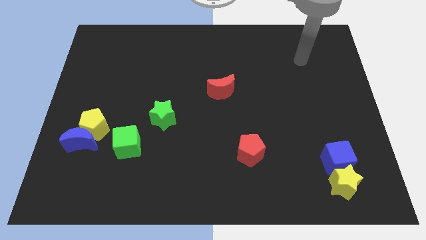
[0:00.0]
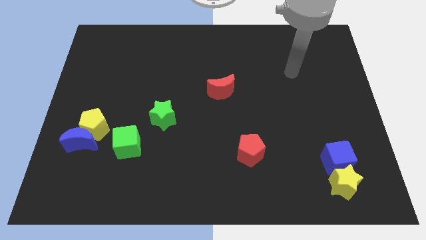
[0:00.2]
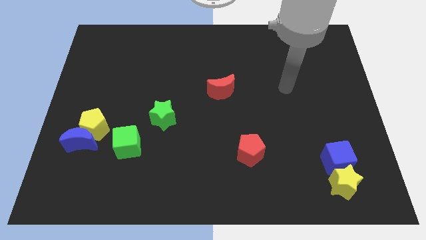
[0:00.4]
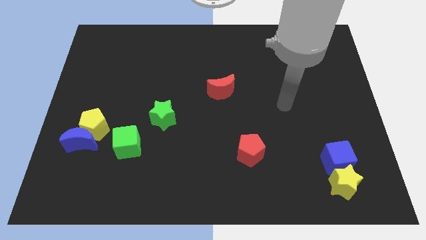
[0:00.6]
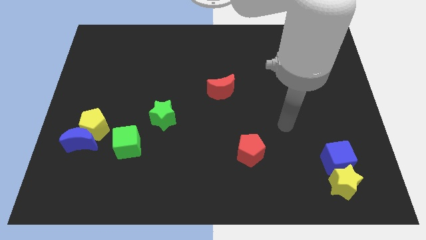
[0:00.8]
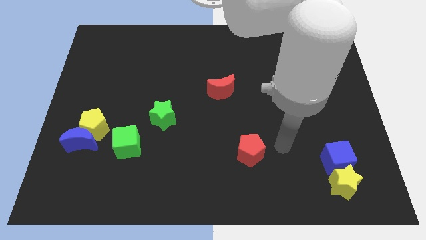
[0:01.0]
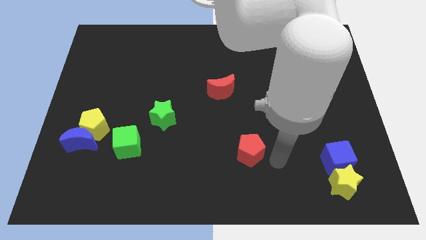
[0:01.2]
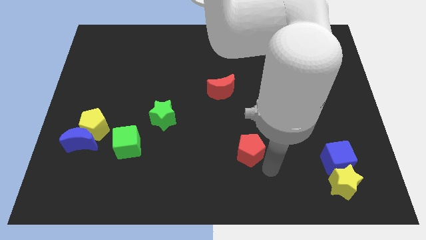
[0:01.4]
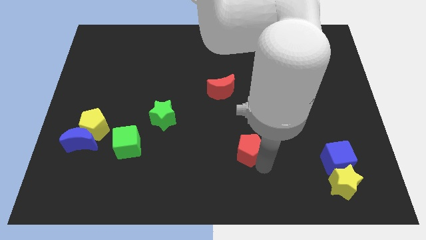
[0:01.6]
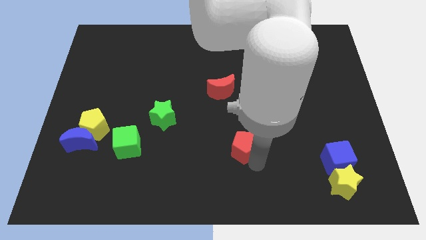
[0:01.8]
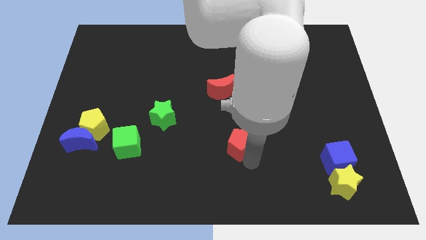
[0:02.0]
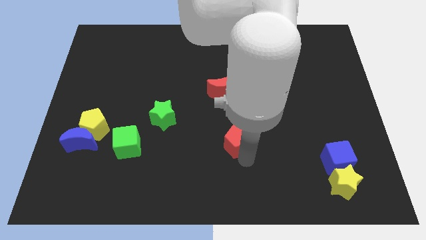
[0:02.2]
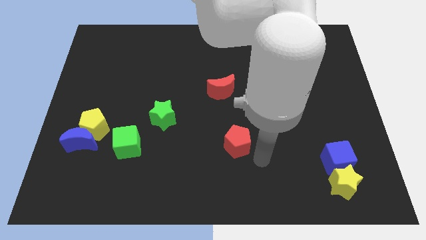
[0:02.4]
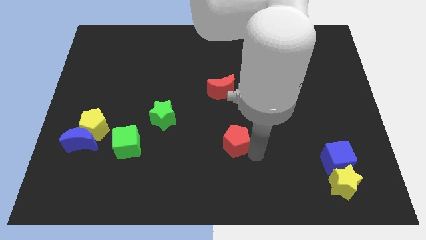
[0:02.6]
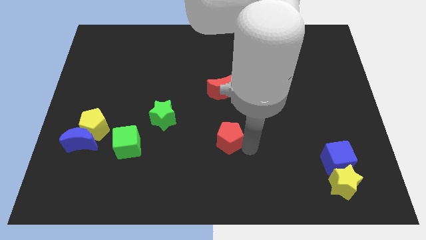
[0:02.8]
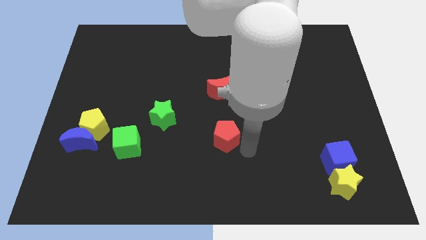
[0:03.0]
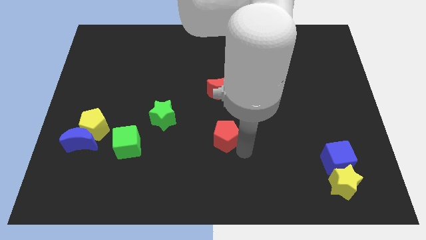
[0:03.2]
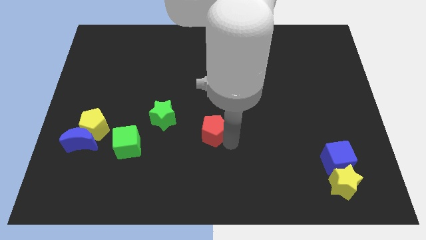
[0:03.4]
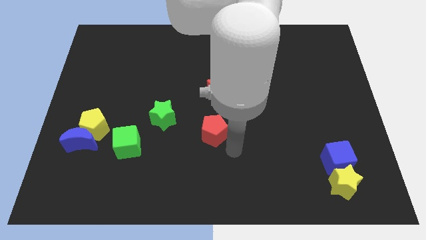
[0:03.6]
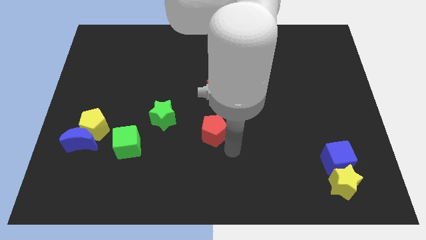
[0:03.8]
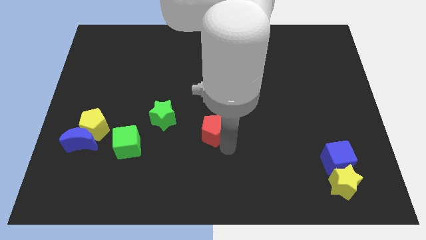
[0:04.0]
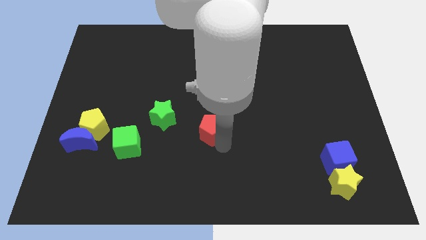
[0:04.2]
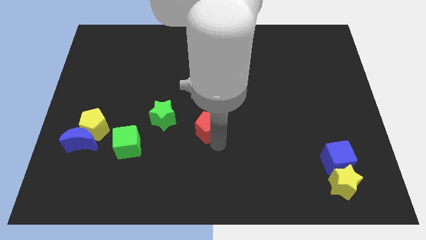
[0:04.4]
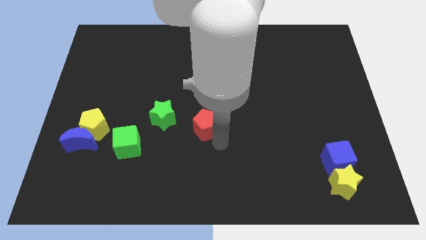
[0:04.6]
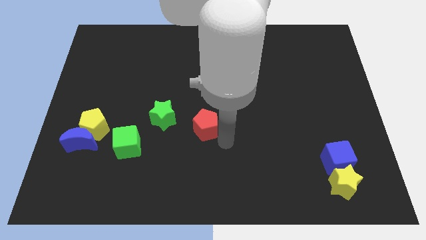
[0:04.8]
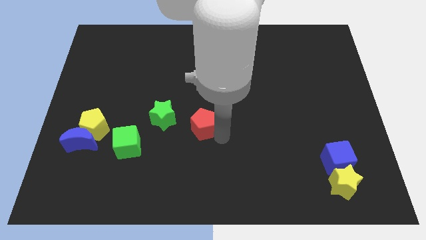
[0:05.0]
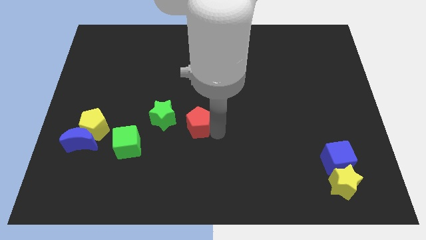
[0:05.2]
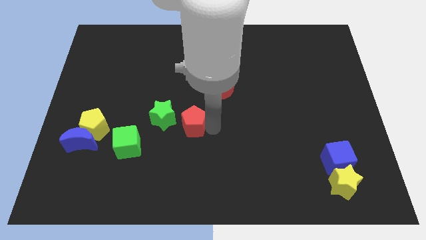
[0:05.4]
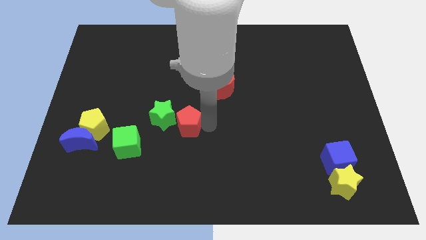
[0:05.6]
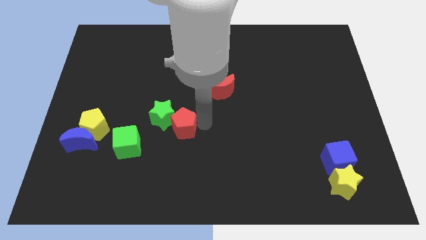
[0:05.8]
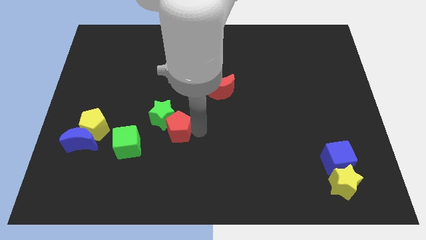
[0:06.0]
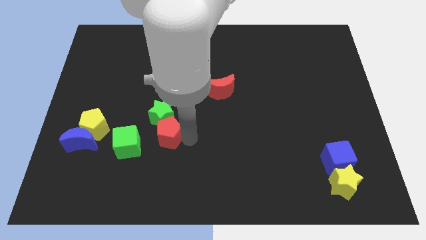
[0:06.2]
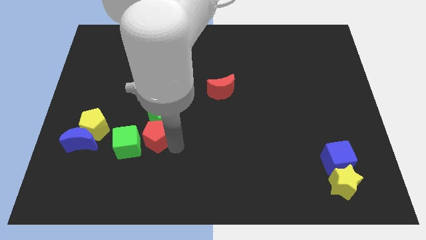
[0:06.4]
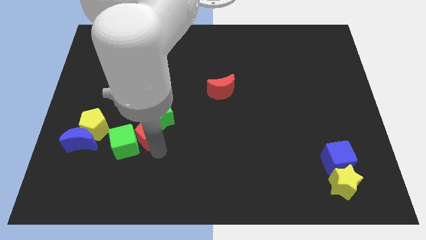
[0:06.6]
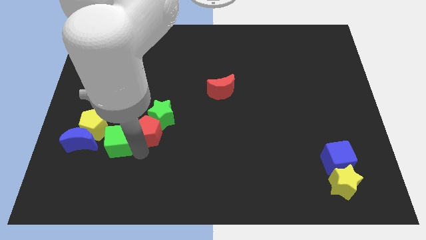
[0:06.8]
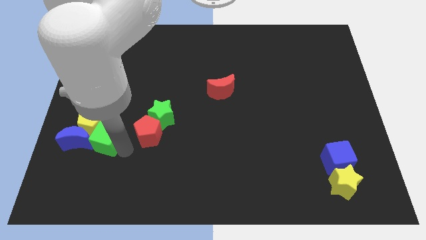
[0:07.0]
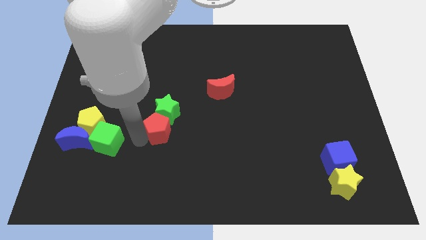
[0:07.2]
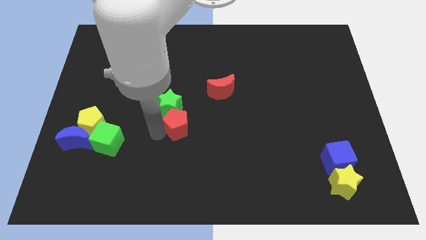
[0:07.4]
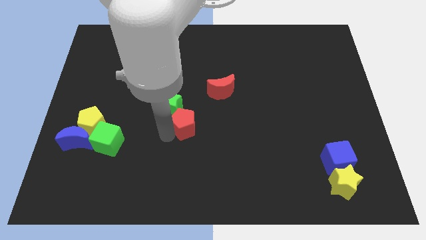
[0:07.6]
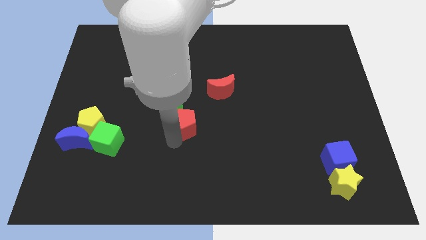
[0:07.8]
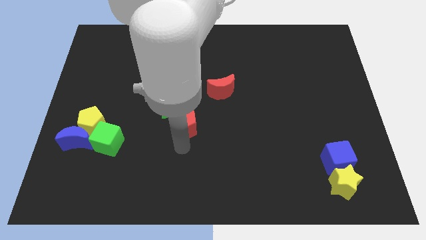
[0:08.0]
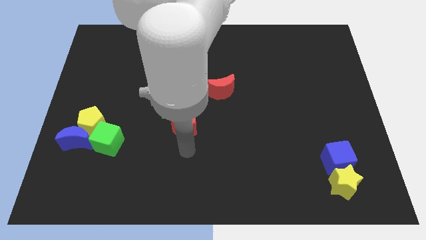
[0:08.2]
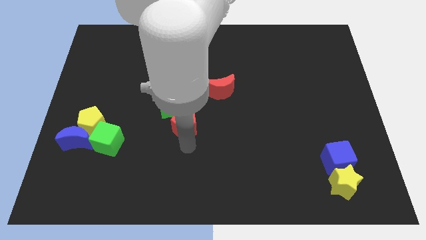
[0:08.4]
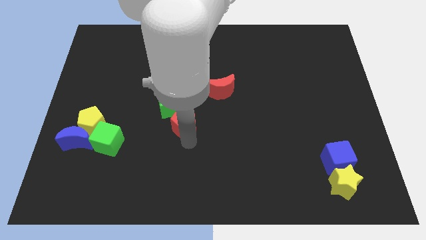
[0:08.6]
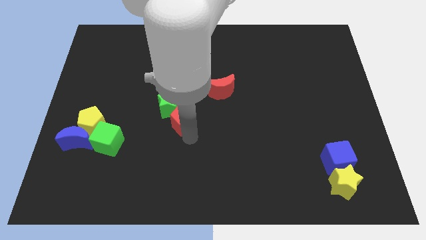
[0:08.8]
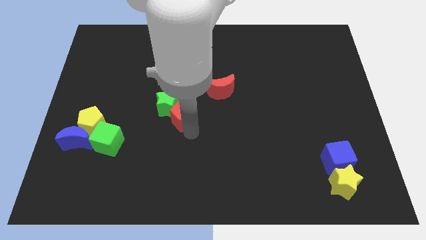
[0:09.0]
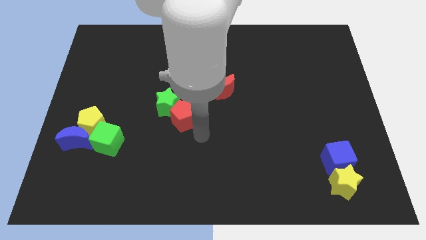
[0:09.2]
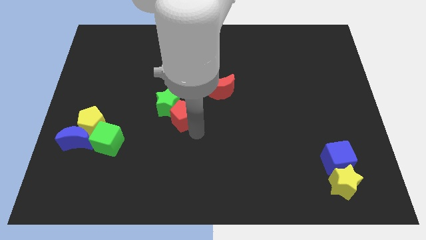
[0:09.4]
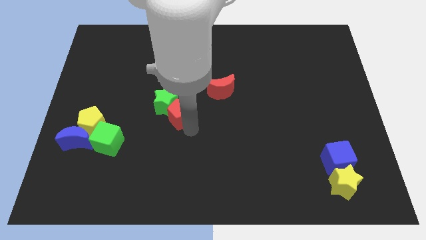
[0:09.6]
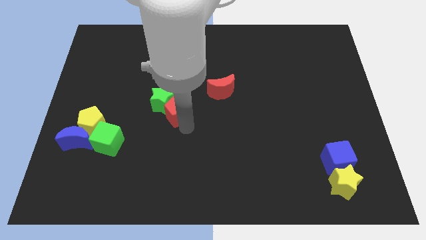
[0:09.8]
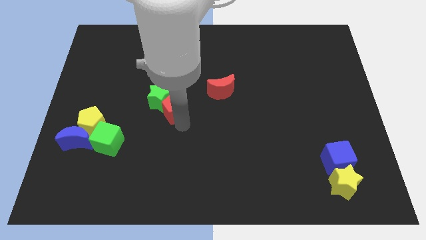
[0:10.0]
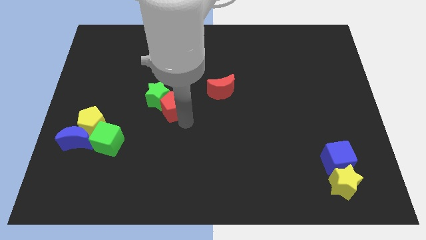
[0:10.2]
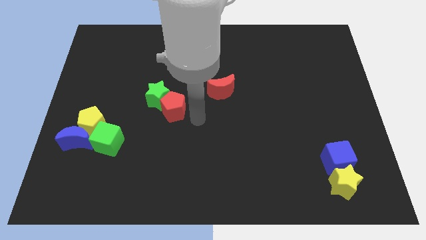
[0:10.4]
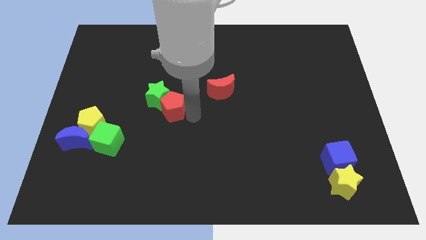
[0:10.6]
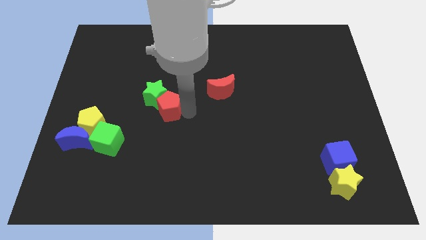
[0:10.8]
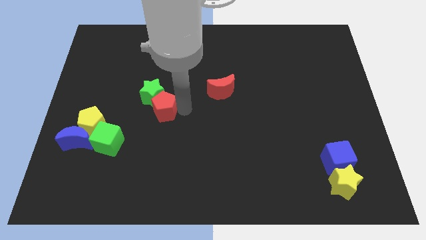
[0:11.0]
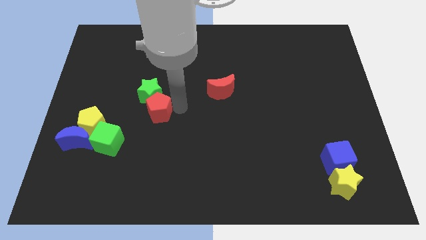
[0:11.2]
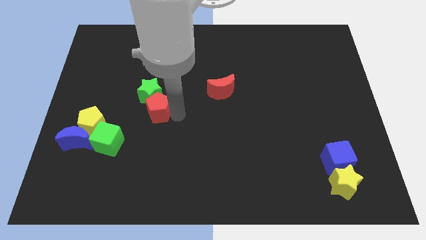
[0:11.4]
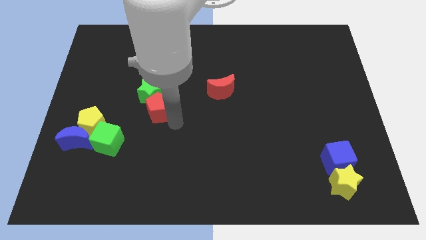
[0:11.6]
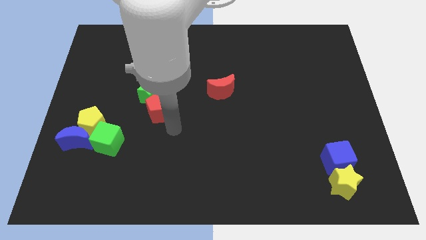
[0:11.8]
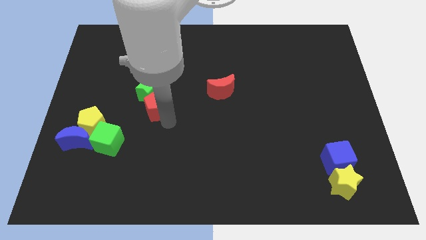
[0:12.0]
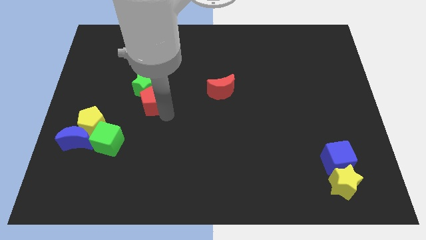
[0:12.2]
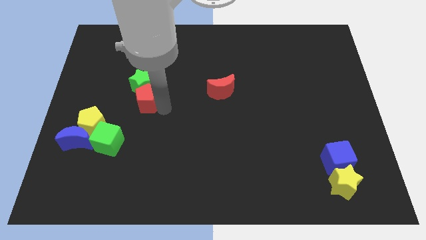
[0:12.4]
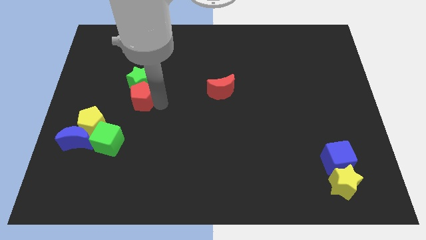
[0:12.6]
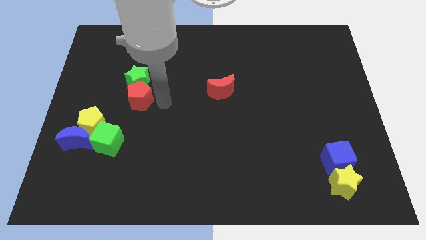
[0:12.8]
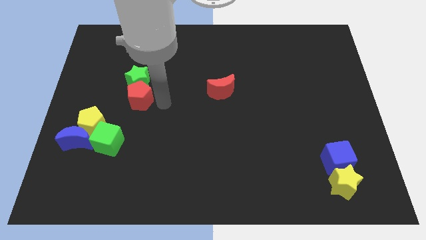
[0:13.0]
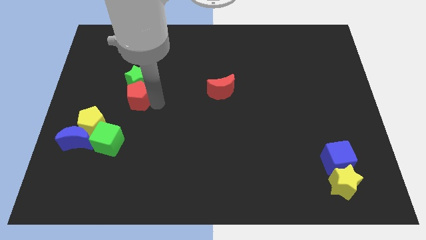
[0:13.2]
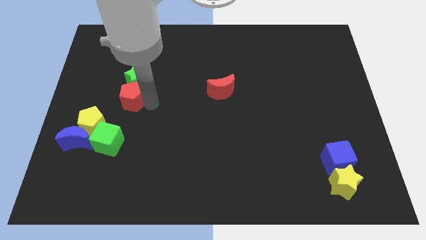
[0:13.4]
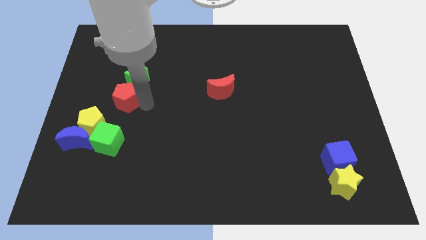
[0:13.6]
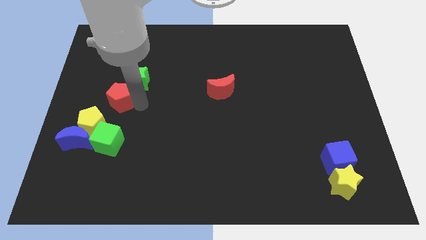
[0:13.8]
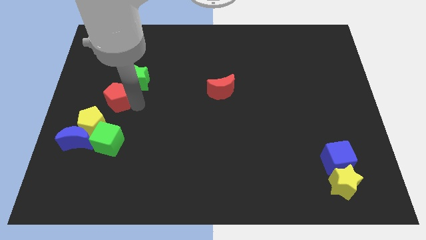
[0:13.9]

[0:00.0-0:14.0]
move the red pentagon to the top side of the yellow pentagon
